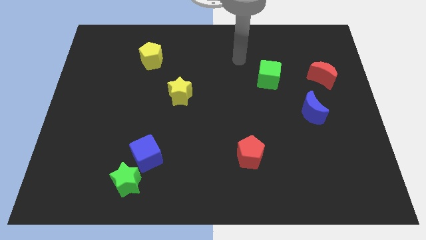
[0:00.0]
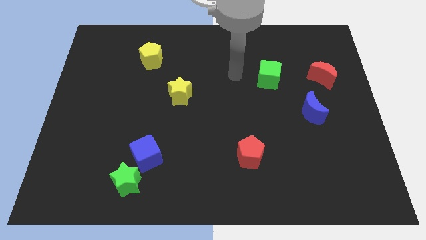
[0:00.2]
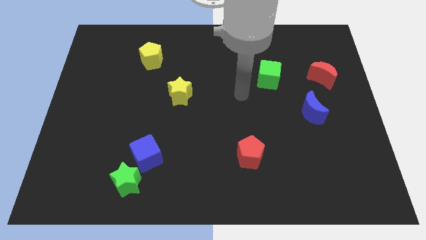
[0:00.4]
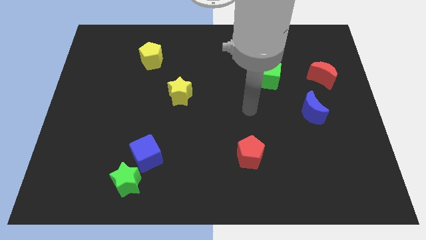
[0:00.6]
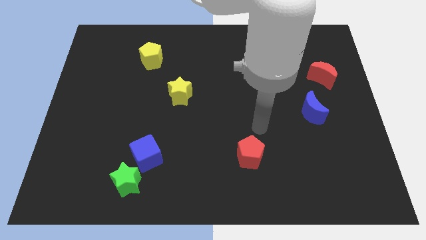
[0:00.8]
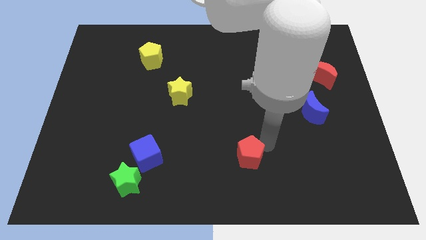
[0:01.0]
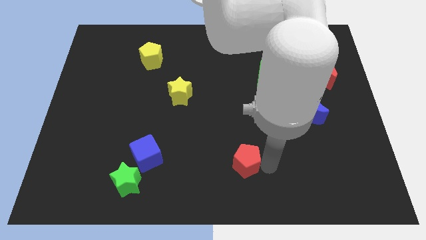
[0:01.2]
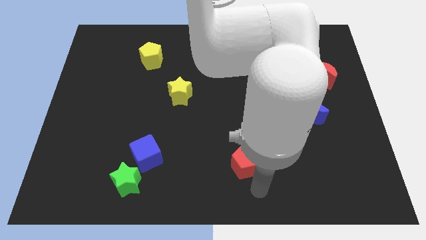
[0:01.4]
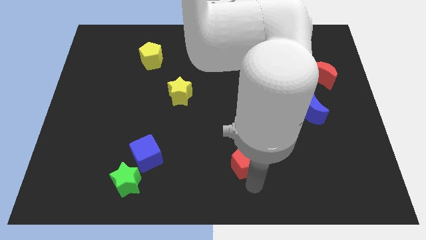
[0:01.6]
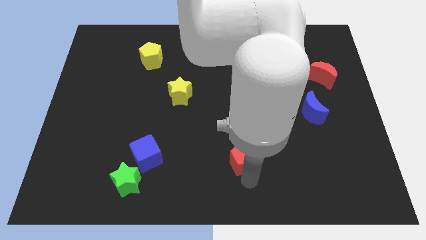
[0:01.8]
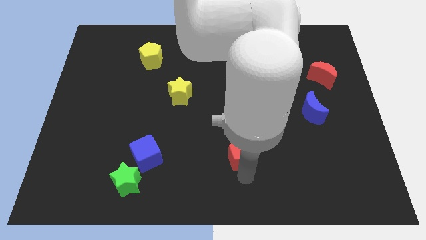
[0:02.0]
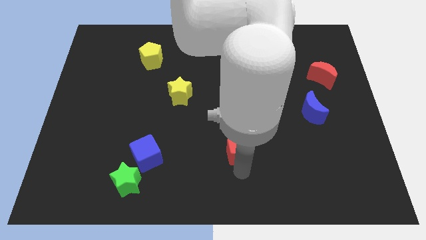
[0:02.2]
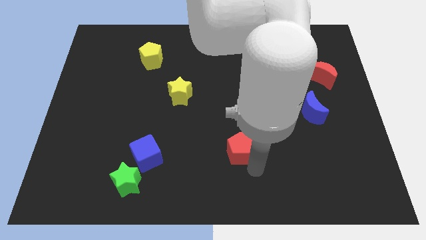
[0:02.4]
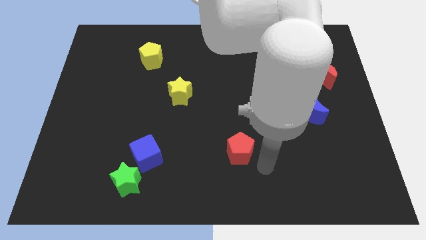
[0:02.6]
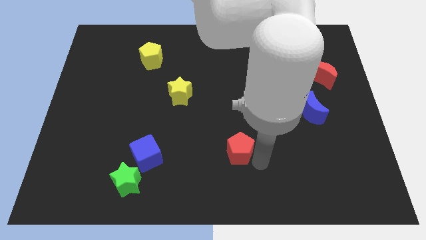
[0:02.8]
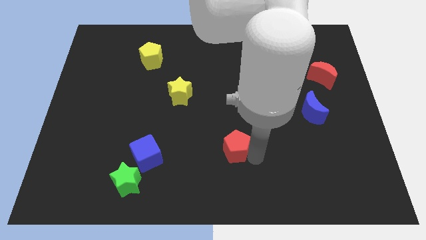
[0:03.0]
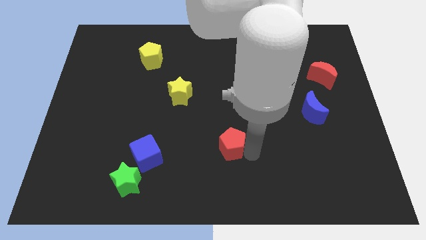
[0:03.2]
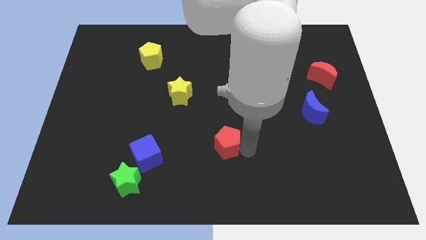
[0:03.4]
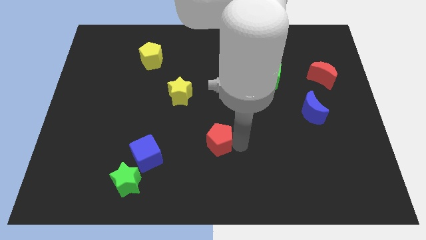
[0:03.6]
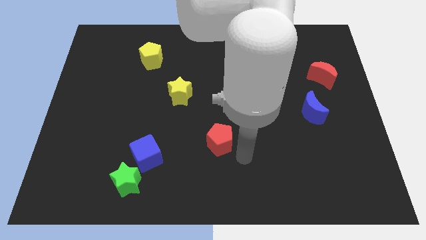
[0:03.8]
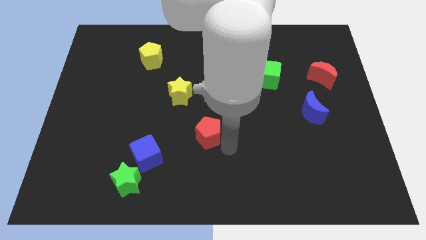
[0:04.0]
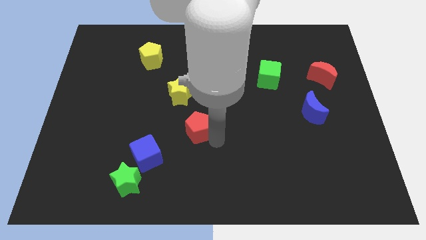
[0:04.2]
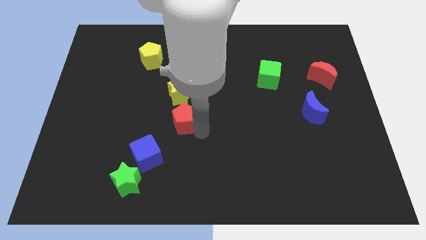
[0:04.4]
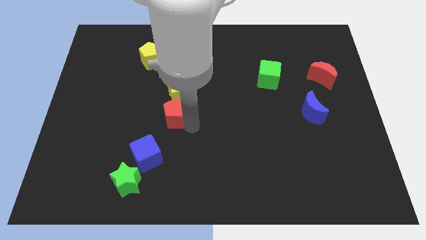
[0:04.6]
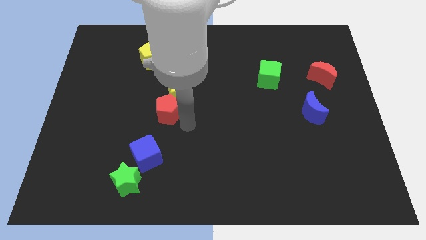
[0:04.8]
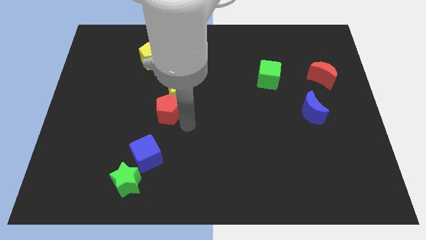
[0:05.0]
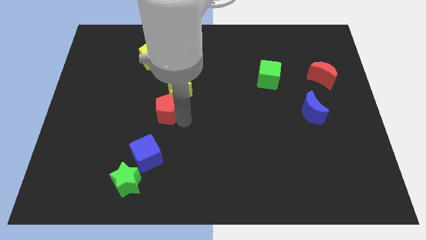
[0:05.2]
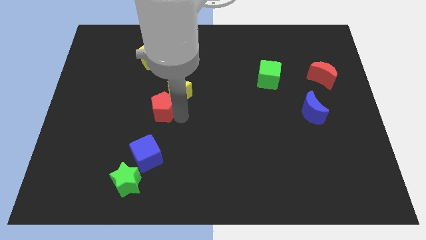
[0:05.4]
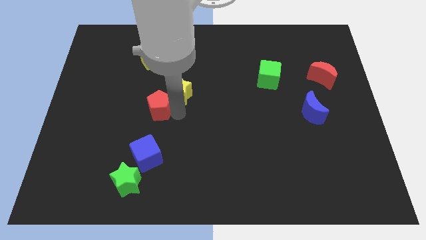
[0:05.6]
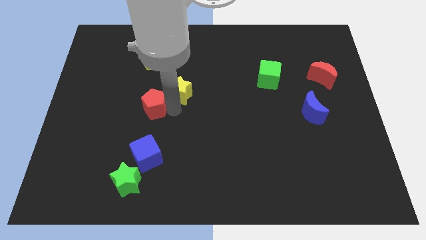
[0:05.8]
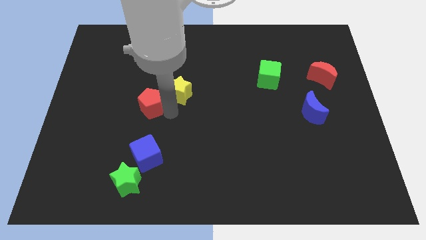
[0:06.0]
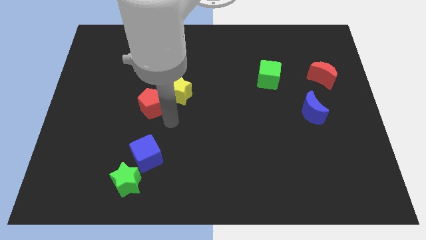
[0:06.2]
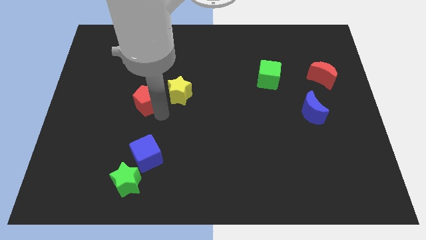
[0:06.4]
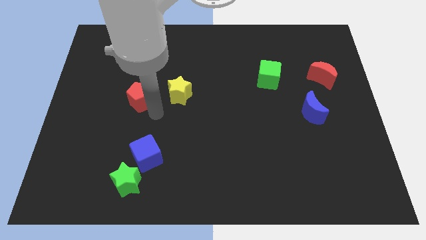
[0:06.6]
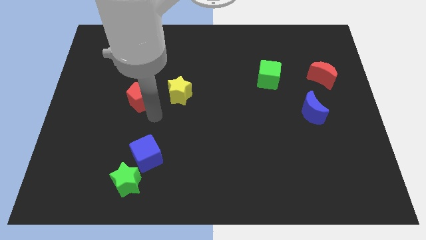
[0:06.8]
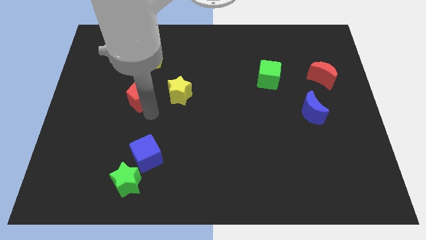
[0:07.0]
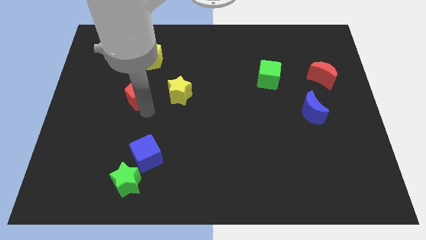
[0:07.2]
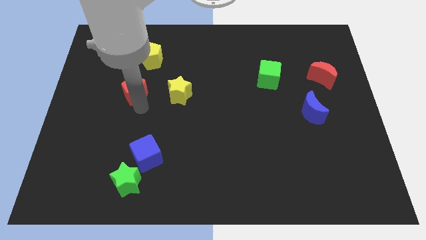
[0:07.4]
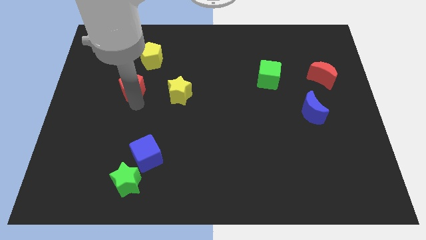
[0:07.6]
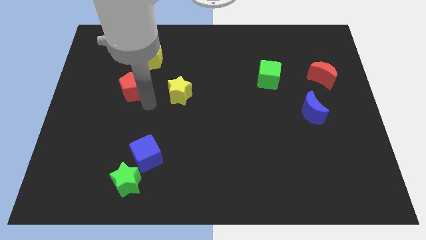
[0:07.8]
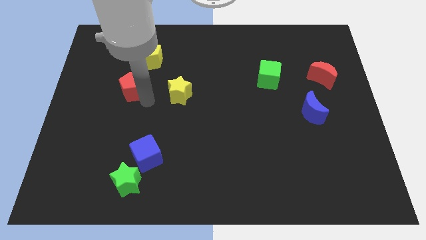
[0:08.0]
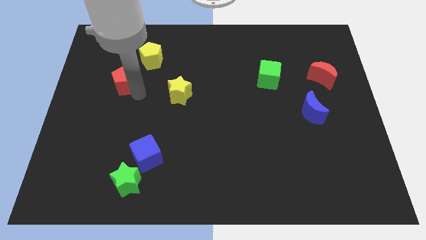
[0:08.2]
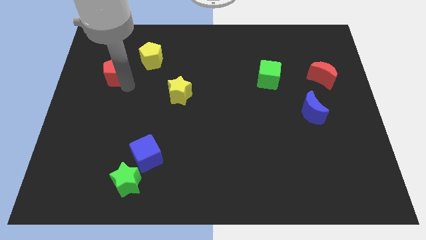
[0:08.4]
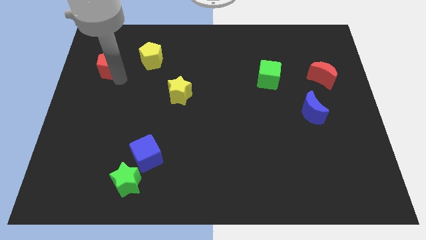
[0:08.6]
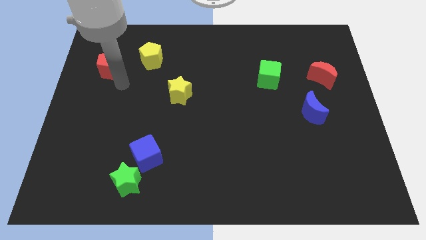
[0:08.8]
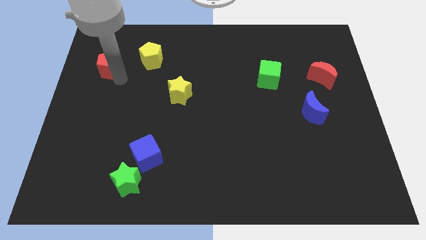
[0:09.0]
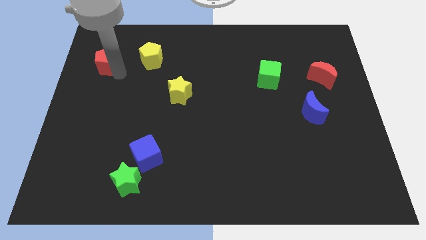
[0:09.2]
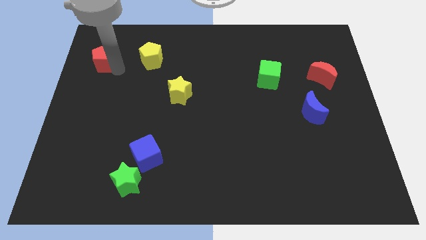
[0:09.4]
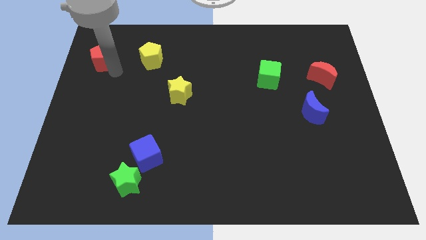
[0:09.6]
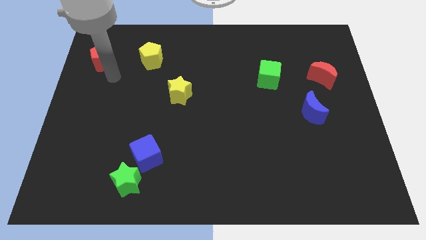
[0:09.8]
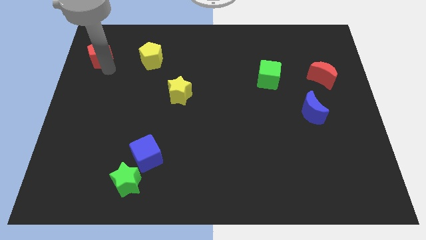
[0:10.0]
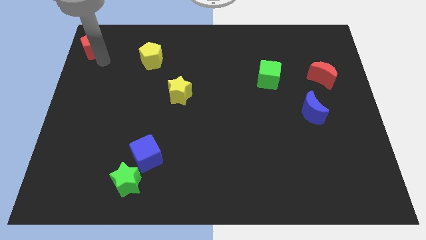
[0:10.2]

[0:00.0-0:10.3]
slide the red pentagon to the top left of the board

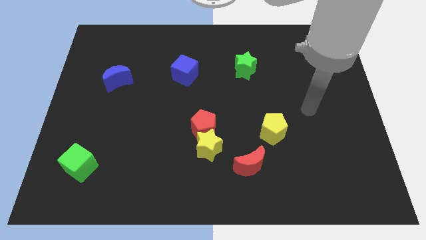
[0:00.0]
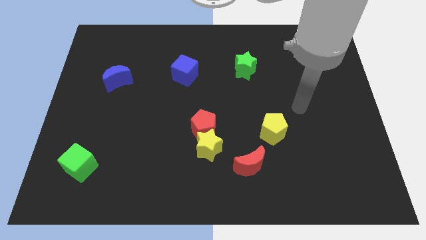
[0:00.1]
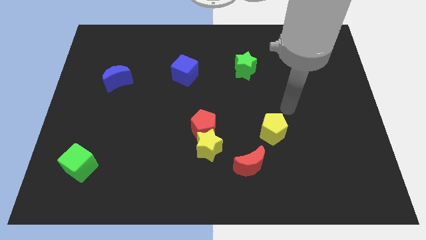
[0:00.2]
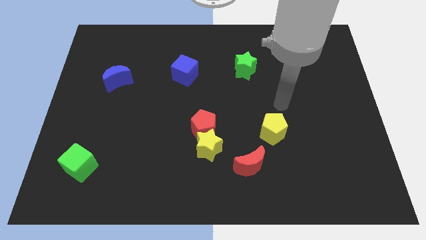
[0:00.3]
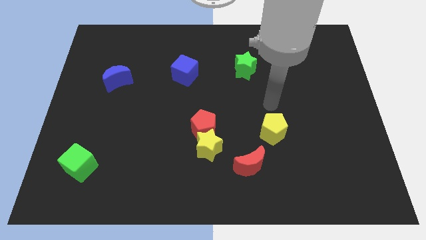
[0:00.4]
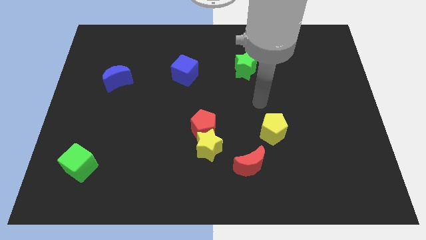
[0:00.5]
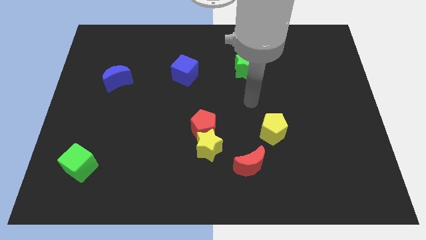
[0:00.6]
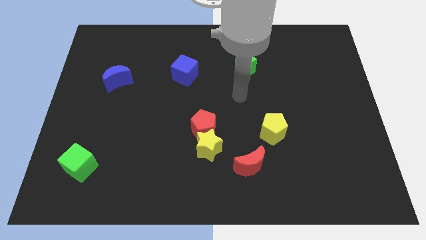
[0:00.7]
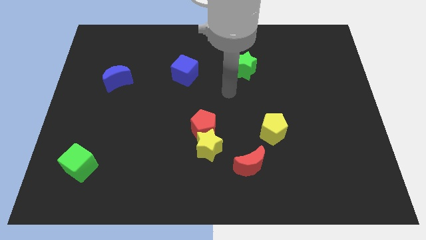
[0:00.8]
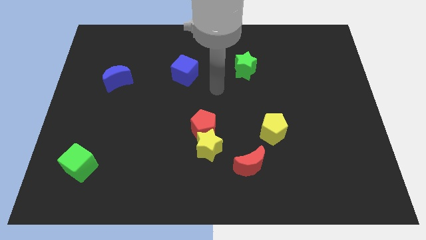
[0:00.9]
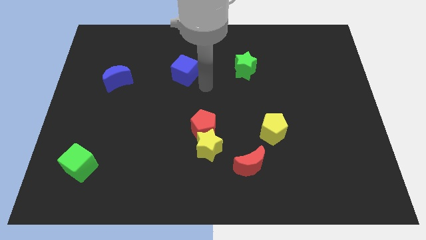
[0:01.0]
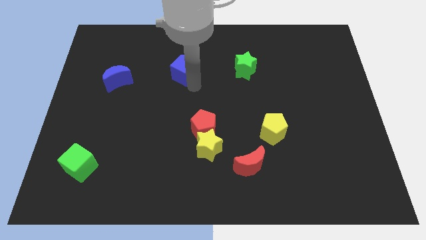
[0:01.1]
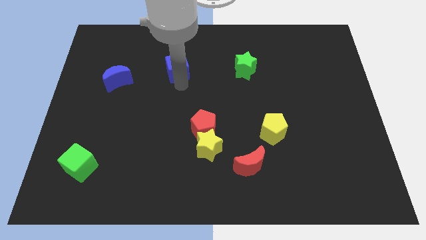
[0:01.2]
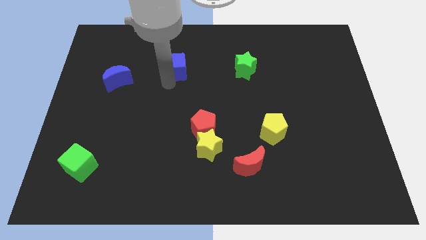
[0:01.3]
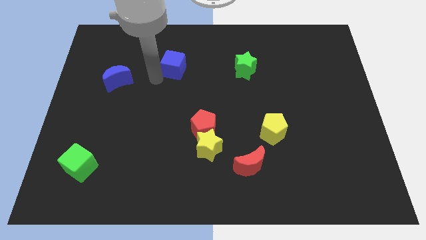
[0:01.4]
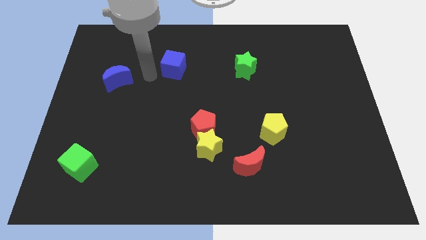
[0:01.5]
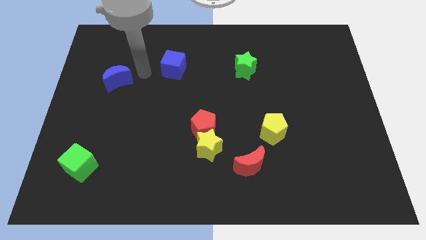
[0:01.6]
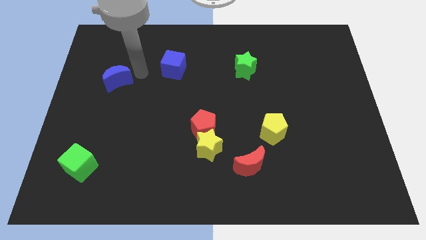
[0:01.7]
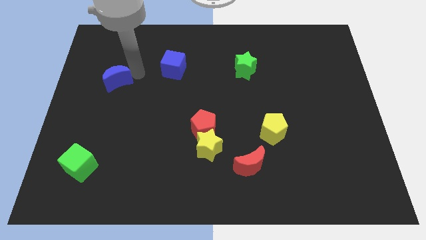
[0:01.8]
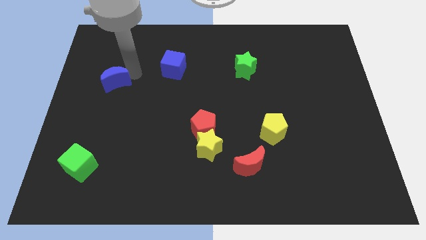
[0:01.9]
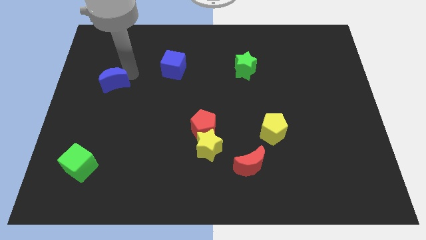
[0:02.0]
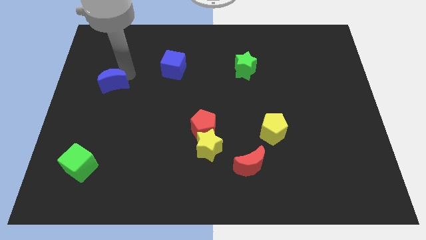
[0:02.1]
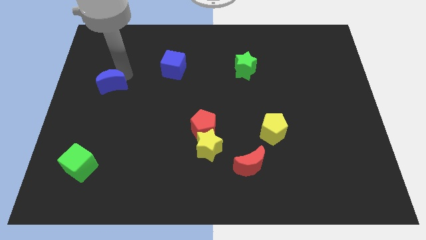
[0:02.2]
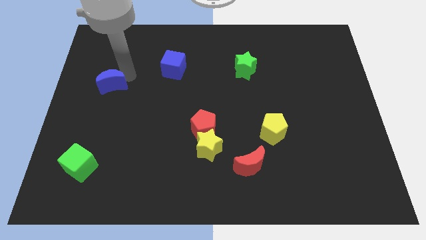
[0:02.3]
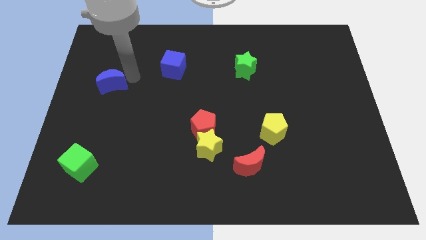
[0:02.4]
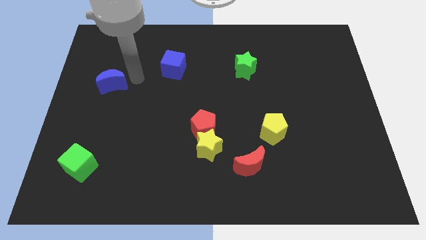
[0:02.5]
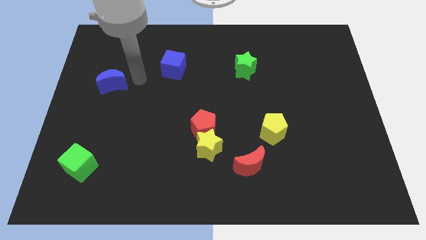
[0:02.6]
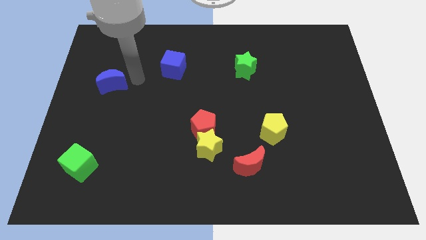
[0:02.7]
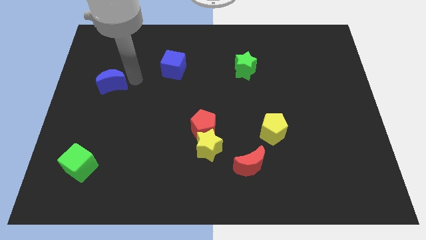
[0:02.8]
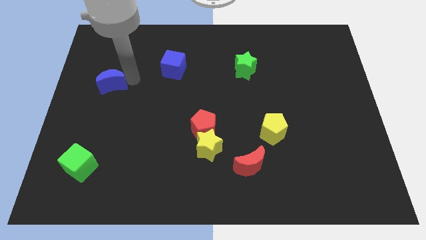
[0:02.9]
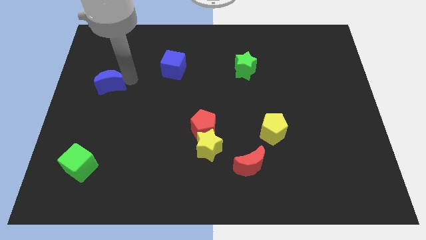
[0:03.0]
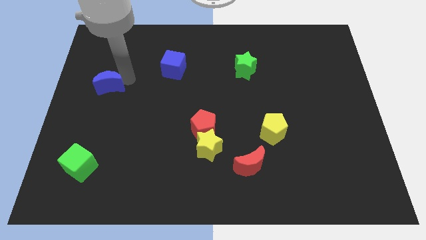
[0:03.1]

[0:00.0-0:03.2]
slide the blue moon to the center left
